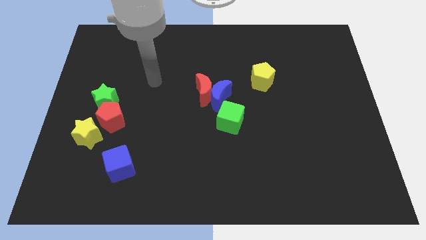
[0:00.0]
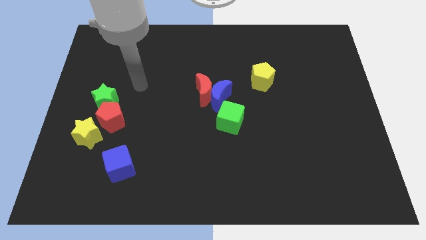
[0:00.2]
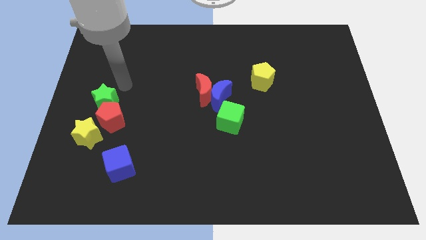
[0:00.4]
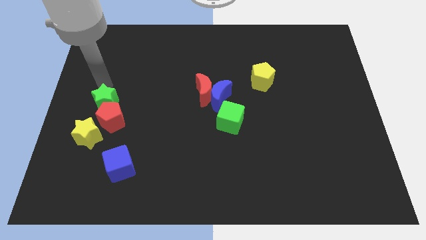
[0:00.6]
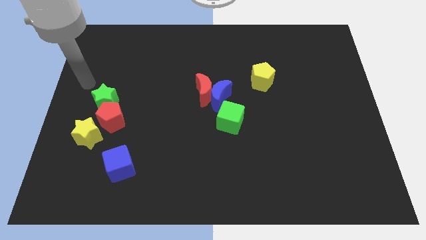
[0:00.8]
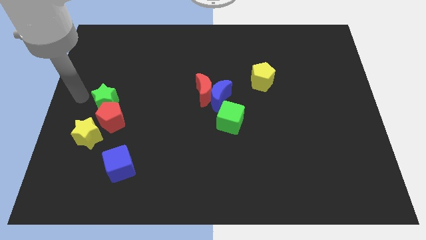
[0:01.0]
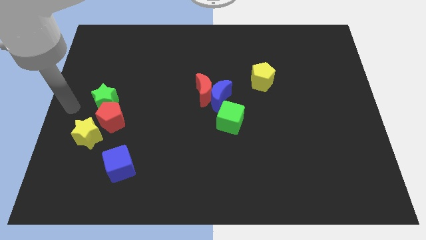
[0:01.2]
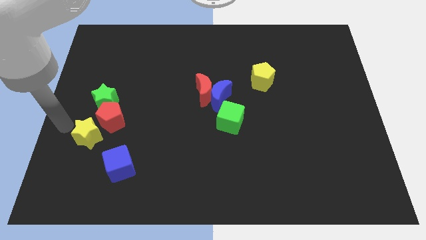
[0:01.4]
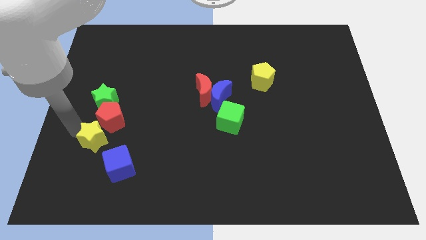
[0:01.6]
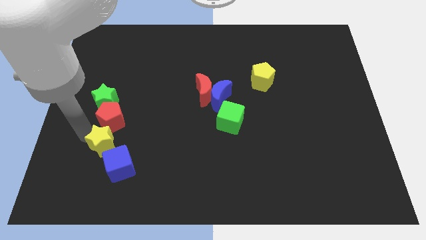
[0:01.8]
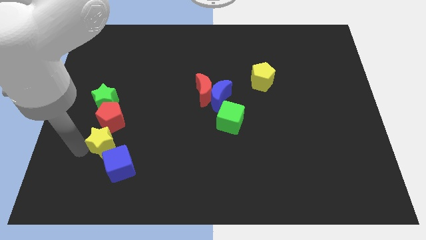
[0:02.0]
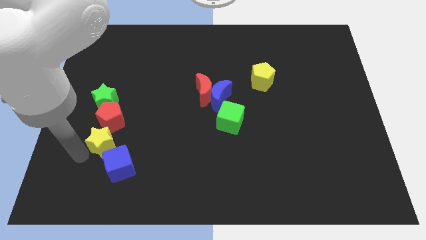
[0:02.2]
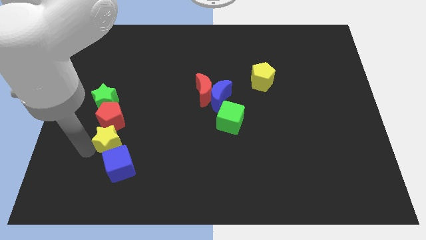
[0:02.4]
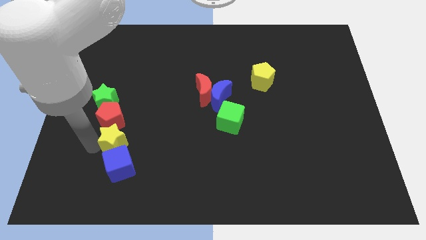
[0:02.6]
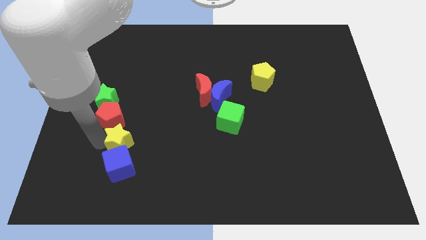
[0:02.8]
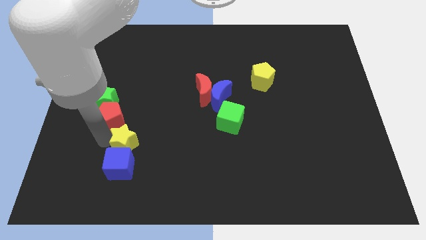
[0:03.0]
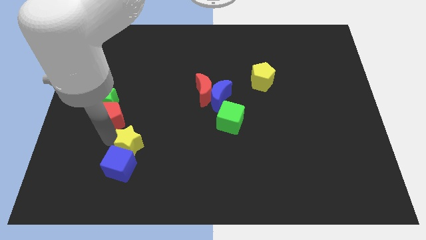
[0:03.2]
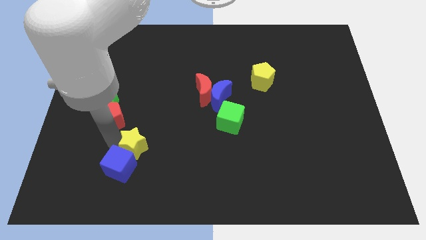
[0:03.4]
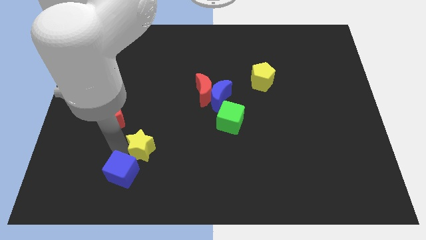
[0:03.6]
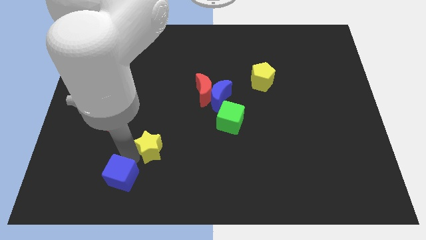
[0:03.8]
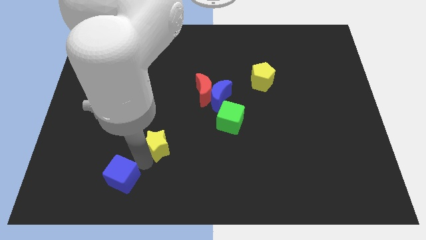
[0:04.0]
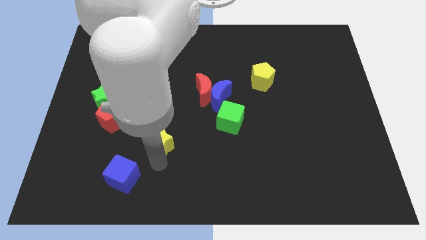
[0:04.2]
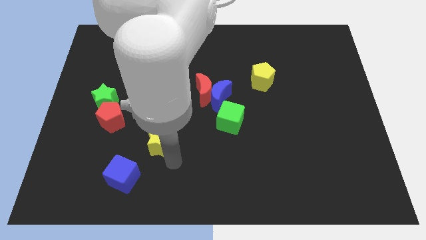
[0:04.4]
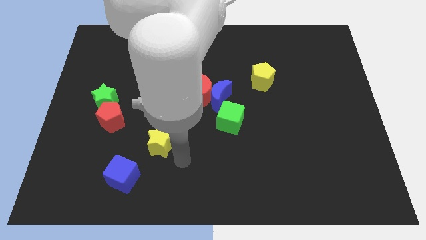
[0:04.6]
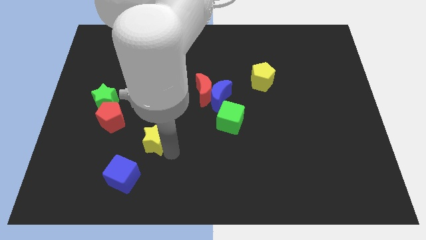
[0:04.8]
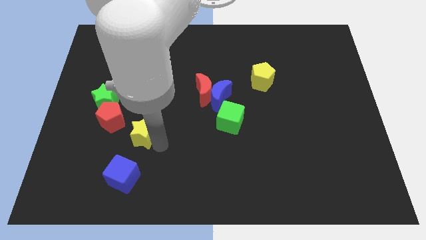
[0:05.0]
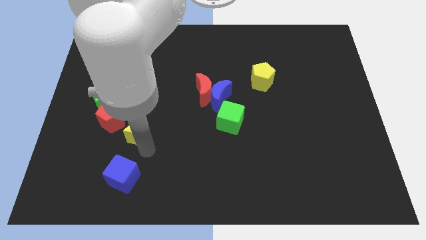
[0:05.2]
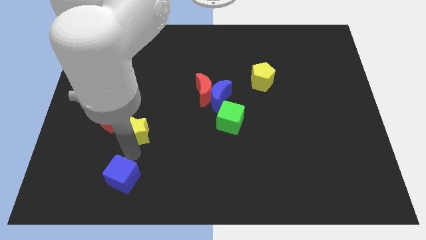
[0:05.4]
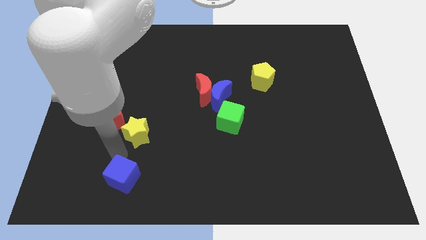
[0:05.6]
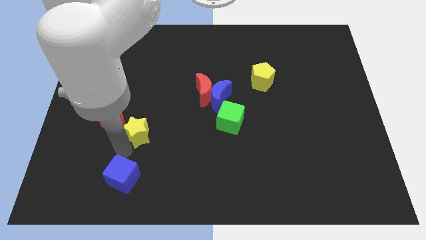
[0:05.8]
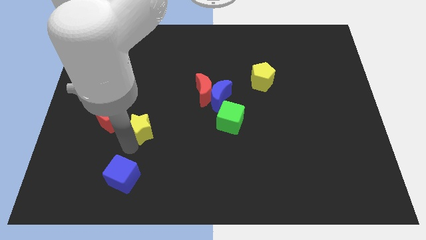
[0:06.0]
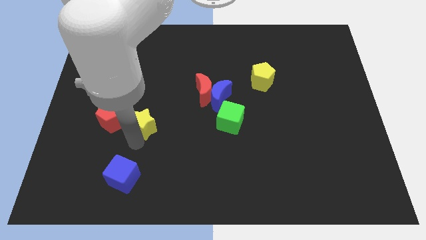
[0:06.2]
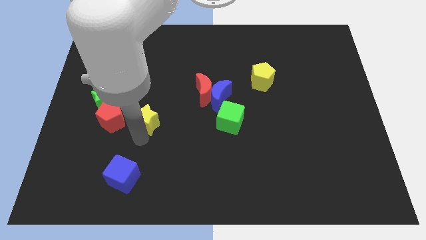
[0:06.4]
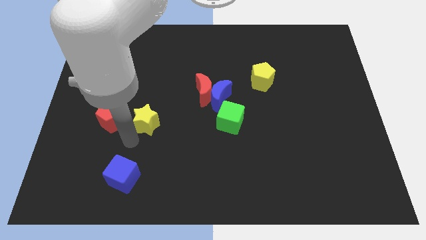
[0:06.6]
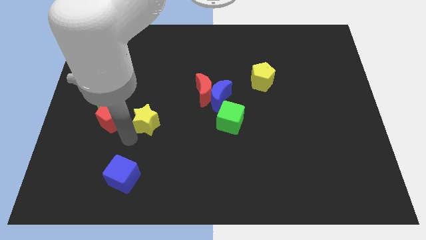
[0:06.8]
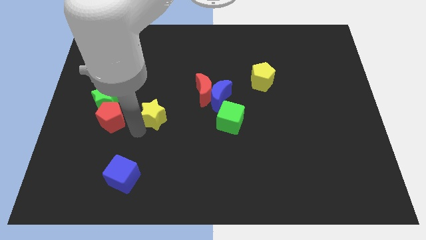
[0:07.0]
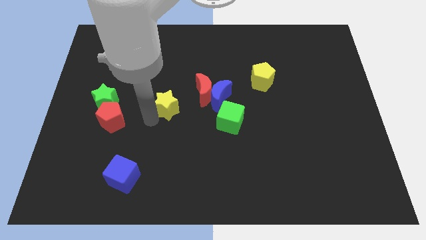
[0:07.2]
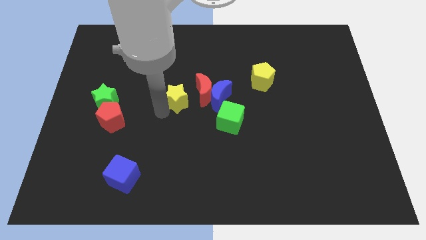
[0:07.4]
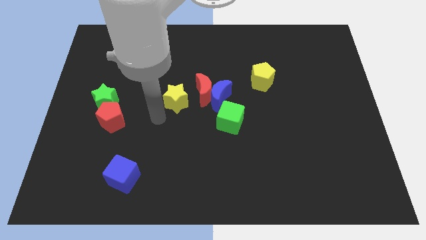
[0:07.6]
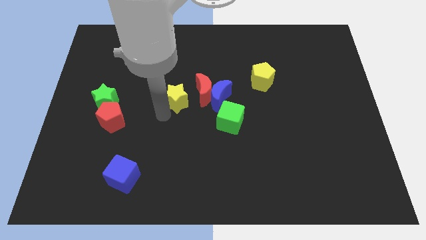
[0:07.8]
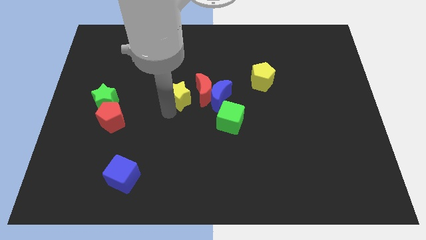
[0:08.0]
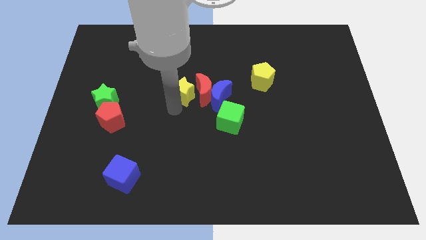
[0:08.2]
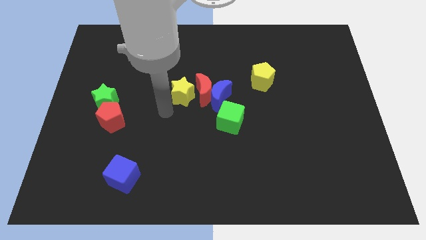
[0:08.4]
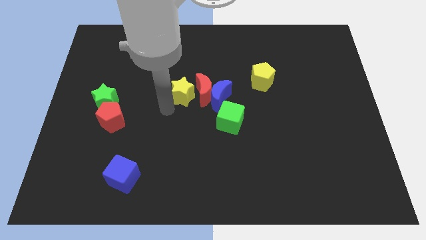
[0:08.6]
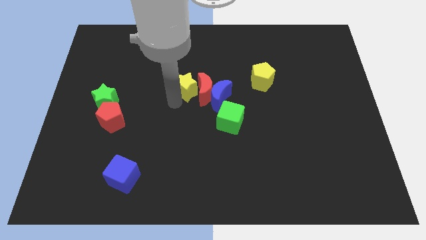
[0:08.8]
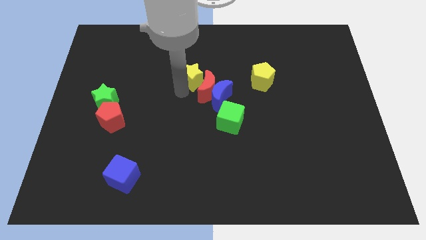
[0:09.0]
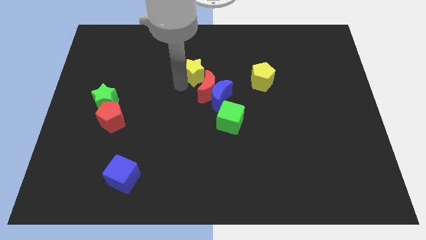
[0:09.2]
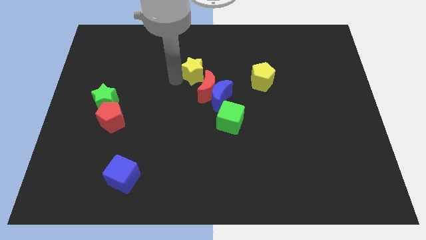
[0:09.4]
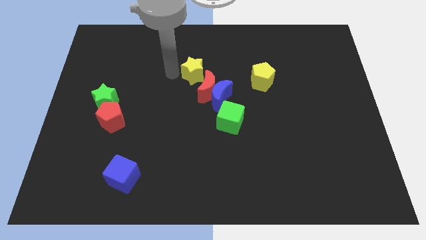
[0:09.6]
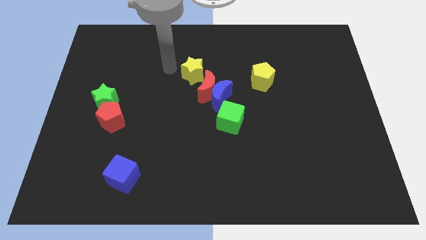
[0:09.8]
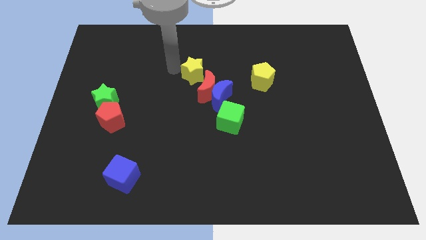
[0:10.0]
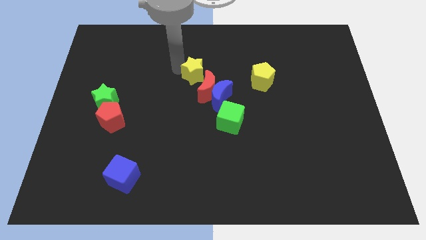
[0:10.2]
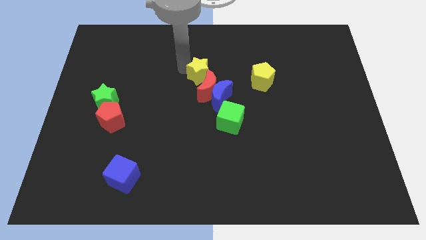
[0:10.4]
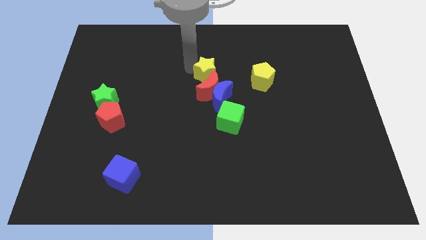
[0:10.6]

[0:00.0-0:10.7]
push the yellow star to the top right of the red moon

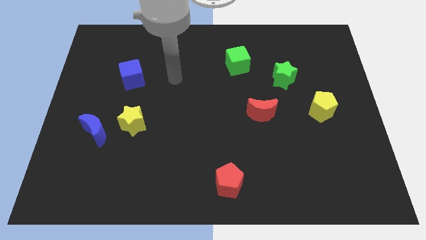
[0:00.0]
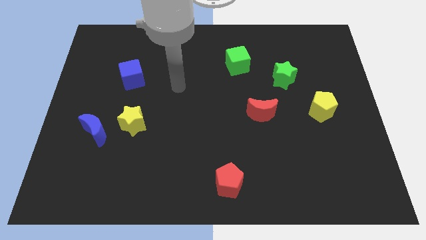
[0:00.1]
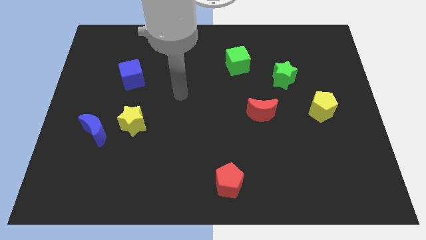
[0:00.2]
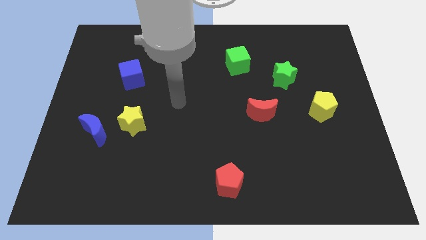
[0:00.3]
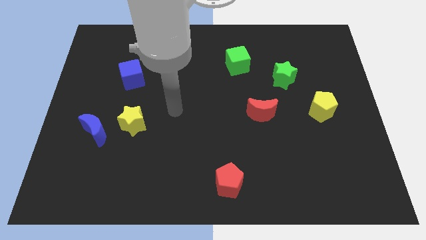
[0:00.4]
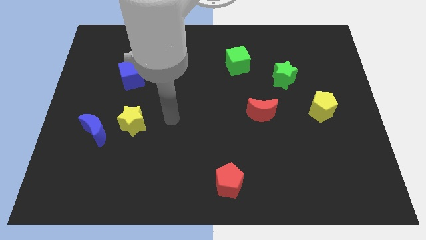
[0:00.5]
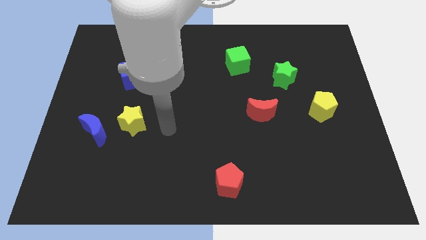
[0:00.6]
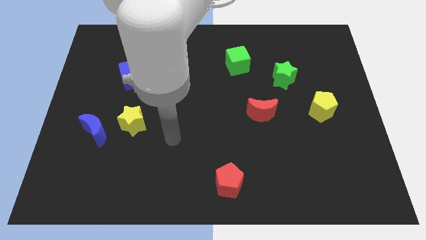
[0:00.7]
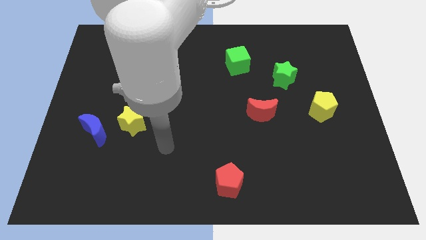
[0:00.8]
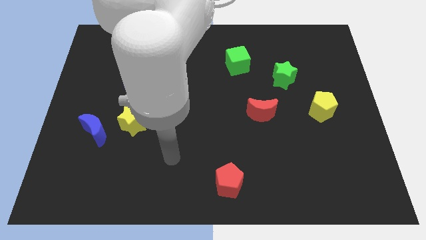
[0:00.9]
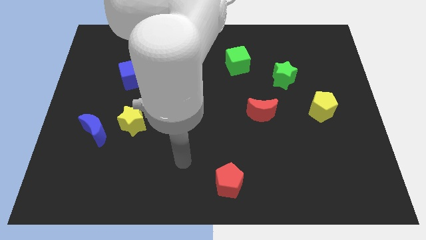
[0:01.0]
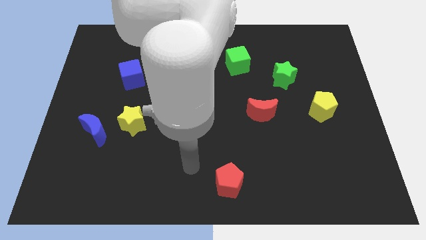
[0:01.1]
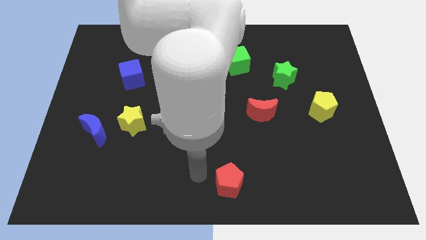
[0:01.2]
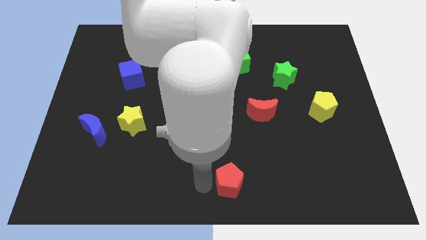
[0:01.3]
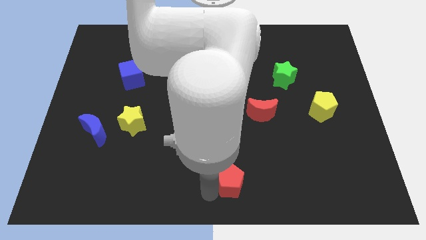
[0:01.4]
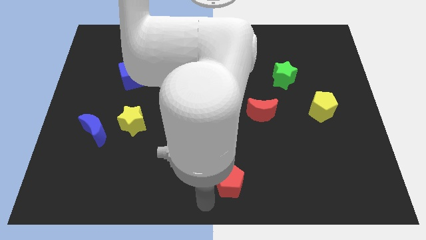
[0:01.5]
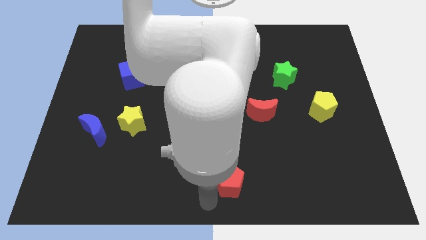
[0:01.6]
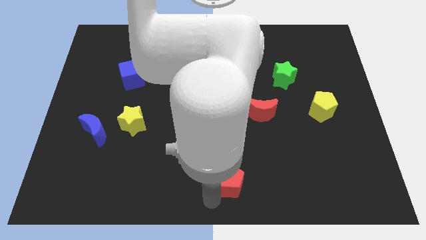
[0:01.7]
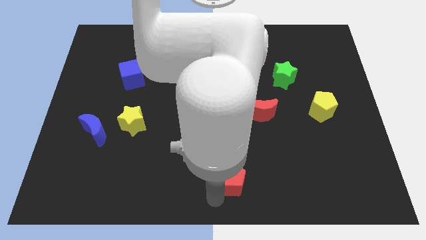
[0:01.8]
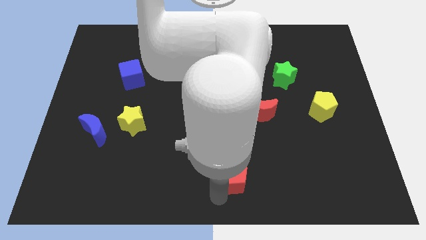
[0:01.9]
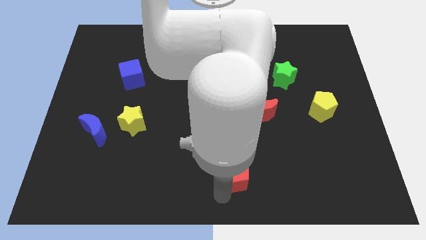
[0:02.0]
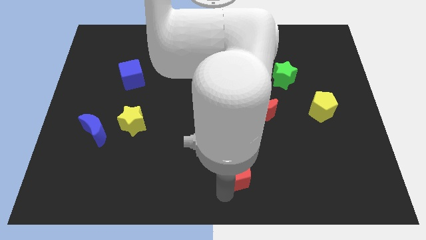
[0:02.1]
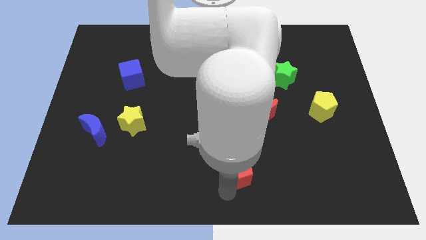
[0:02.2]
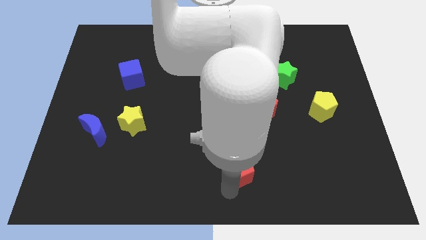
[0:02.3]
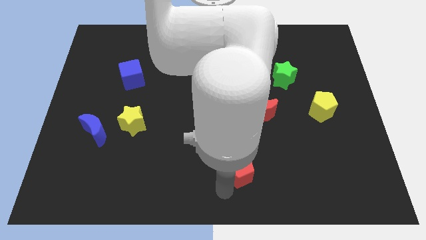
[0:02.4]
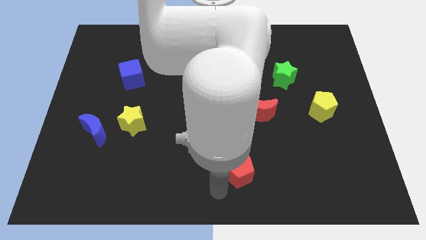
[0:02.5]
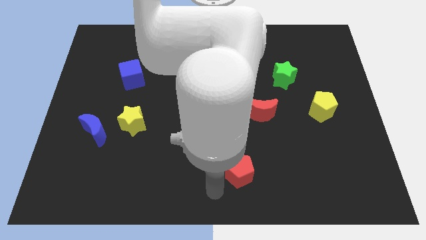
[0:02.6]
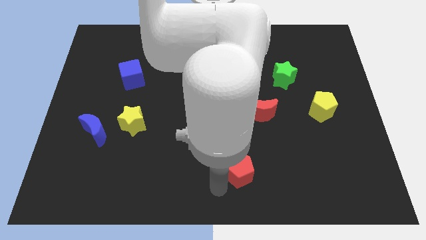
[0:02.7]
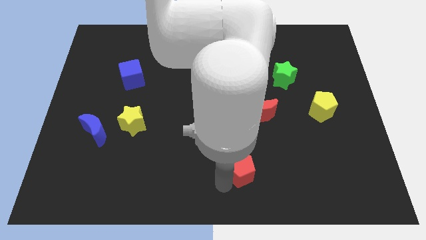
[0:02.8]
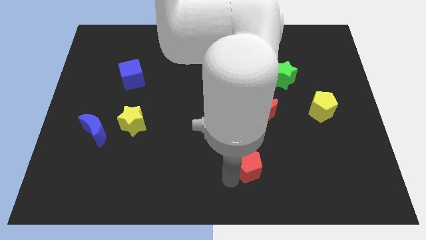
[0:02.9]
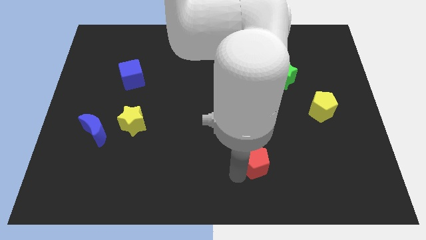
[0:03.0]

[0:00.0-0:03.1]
move the red pentagon to the bottom of the red moon
